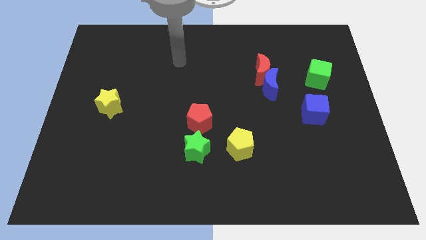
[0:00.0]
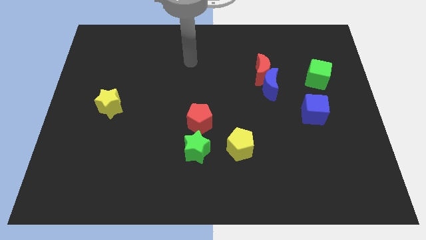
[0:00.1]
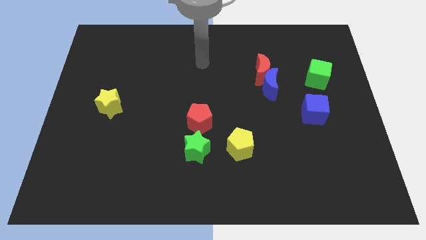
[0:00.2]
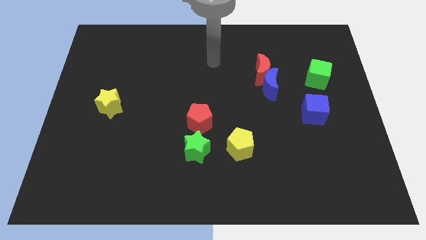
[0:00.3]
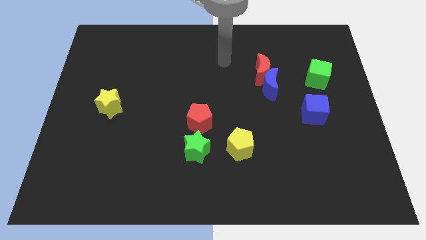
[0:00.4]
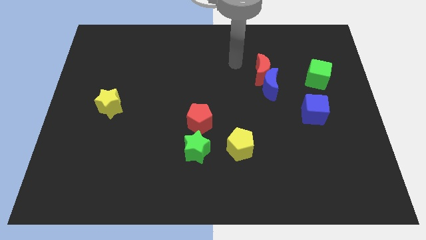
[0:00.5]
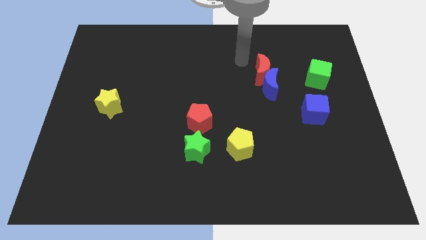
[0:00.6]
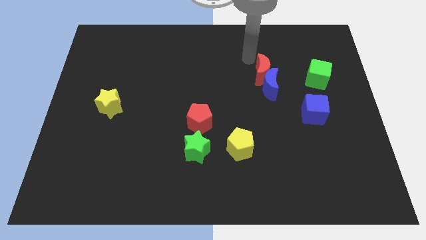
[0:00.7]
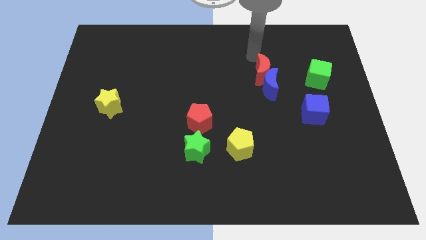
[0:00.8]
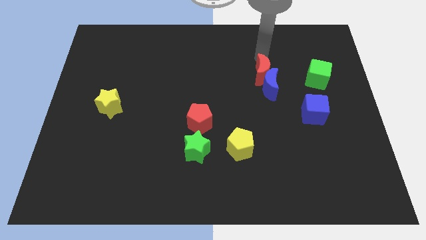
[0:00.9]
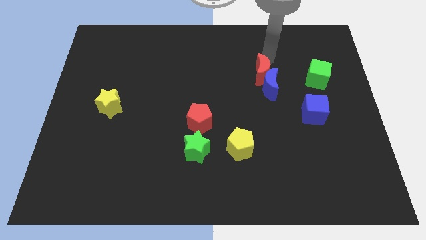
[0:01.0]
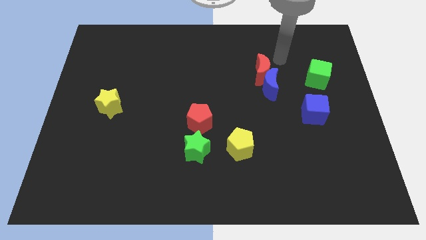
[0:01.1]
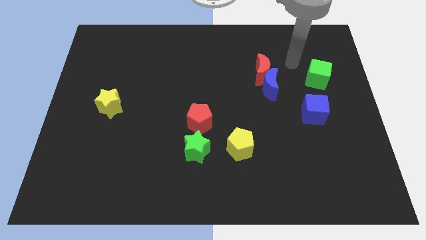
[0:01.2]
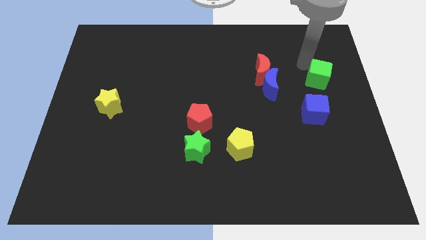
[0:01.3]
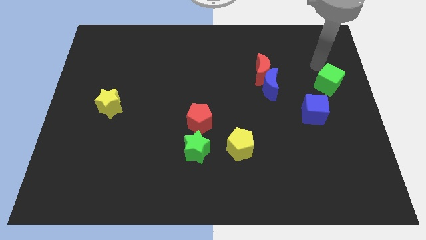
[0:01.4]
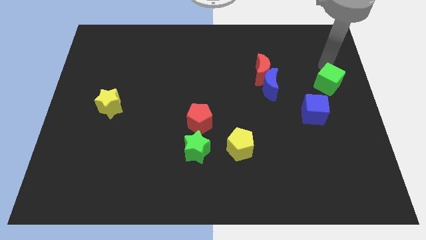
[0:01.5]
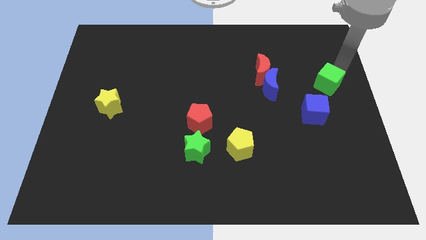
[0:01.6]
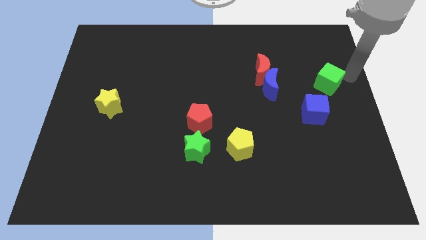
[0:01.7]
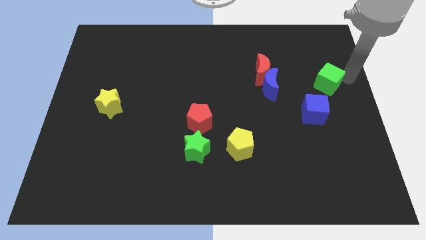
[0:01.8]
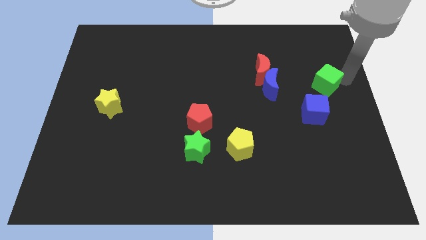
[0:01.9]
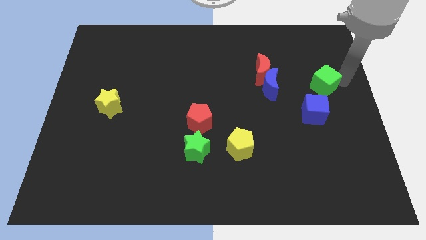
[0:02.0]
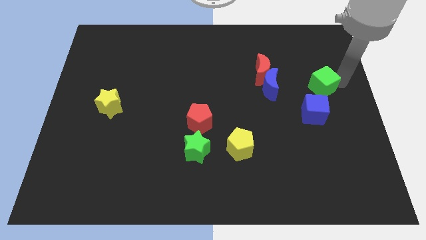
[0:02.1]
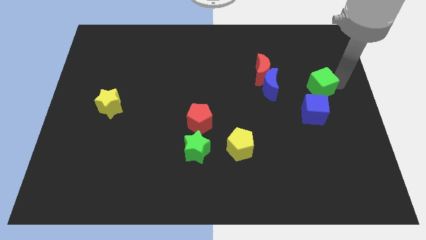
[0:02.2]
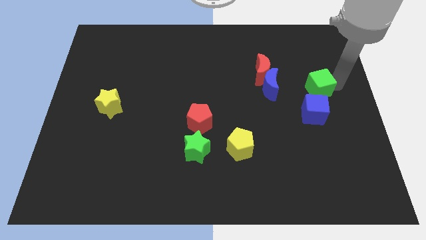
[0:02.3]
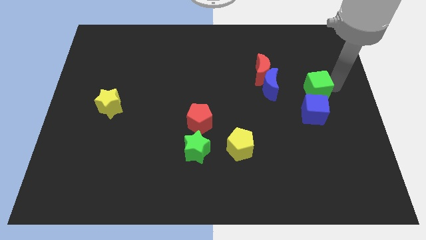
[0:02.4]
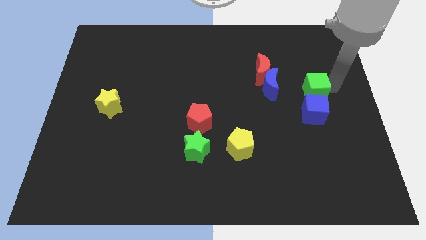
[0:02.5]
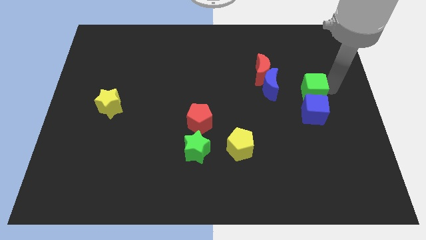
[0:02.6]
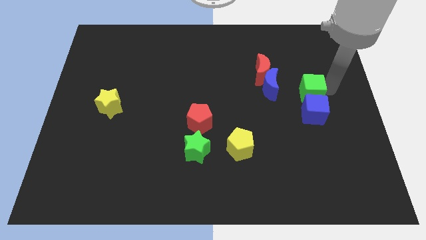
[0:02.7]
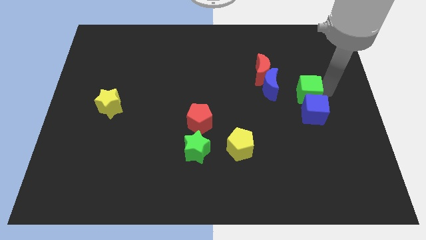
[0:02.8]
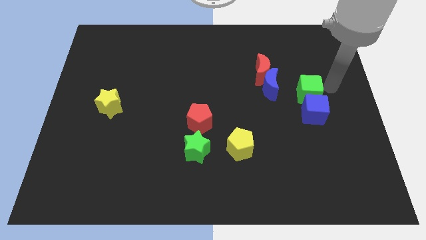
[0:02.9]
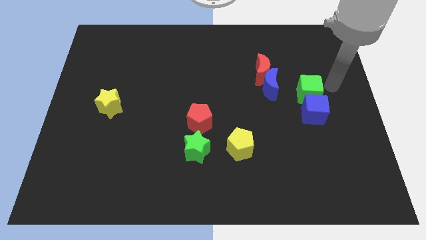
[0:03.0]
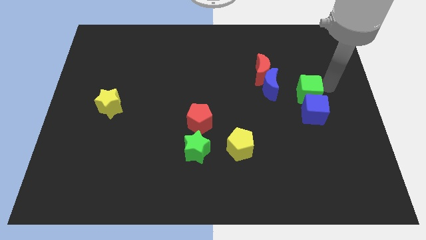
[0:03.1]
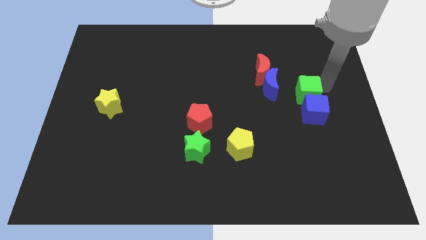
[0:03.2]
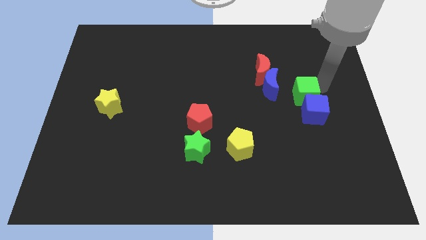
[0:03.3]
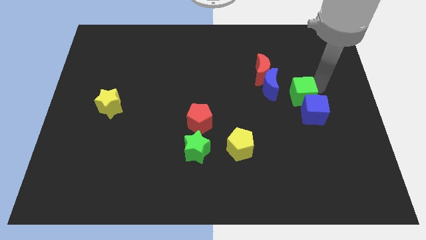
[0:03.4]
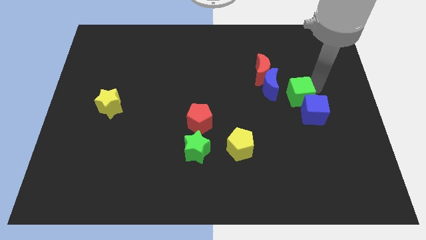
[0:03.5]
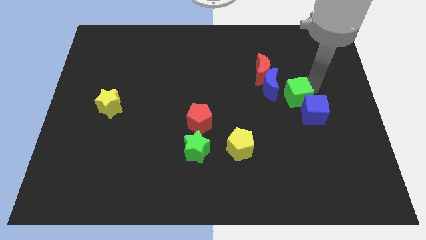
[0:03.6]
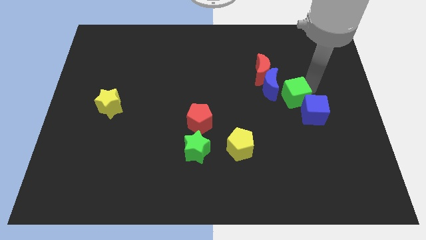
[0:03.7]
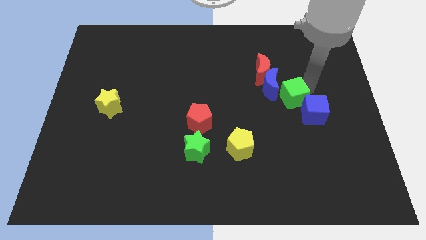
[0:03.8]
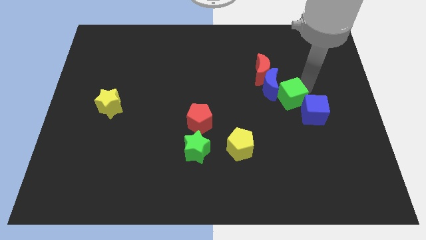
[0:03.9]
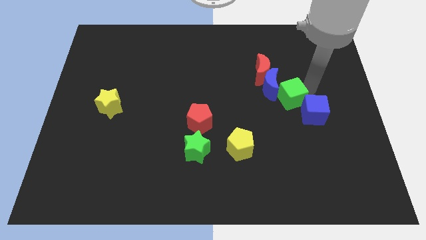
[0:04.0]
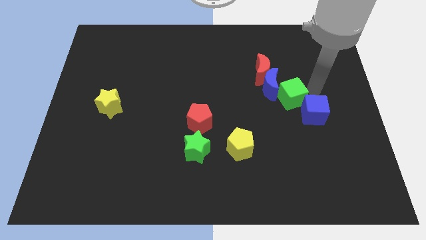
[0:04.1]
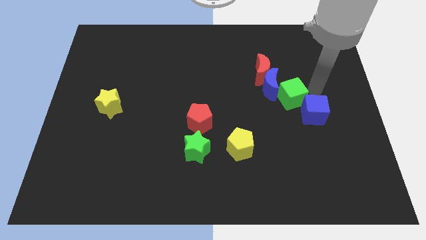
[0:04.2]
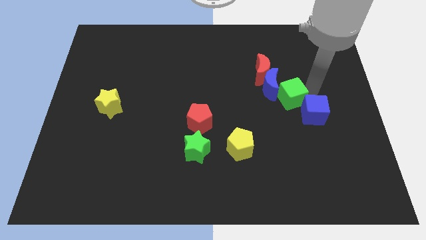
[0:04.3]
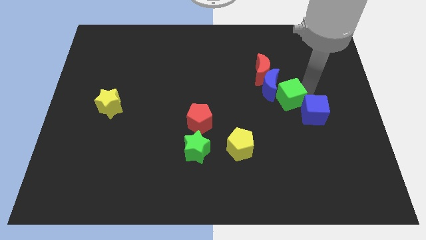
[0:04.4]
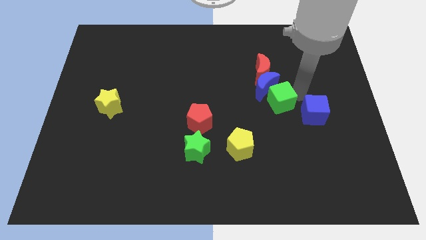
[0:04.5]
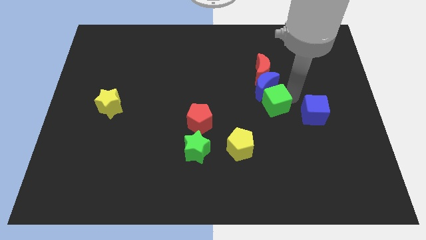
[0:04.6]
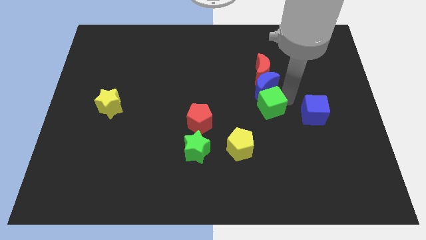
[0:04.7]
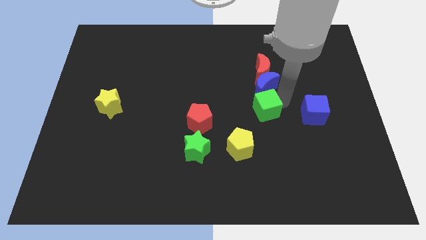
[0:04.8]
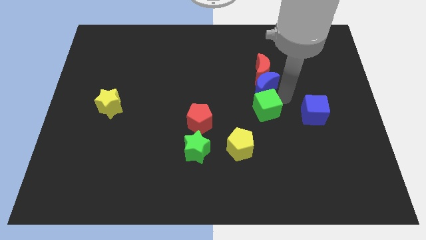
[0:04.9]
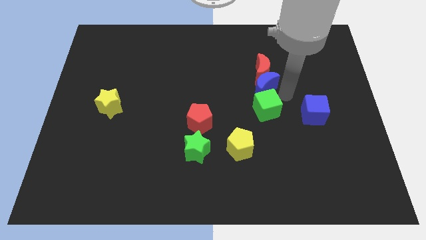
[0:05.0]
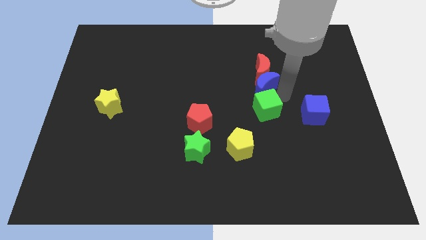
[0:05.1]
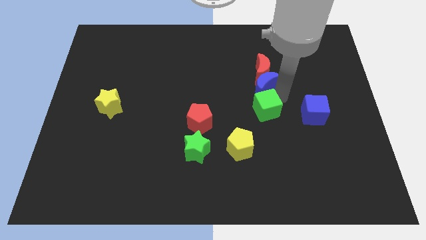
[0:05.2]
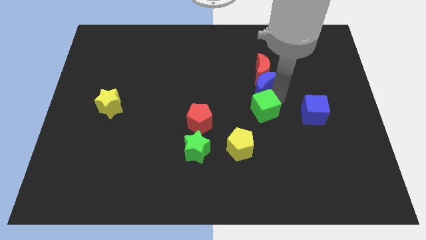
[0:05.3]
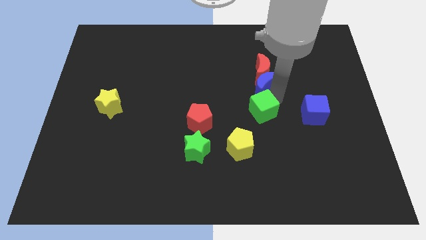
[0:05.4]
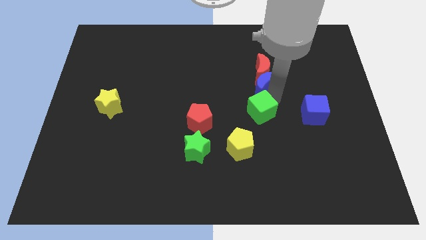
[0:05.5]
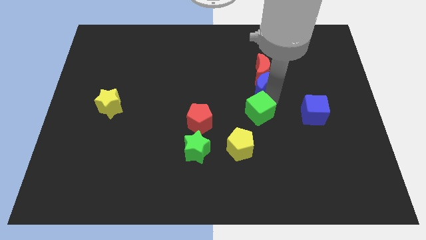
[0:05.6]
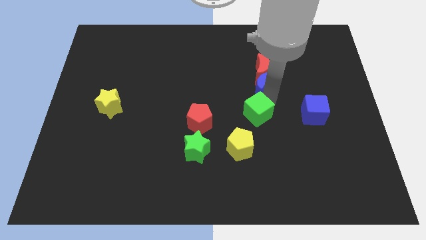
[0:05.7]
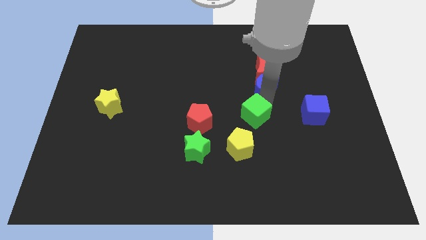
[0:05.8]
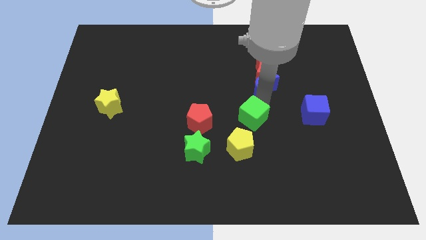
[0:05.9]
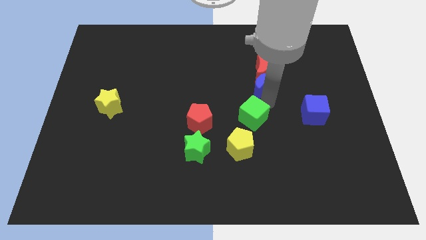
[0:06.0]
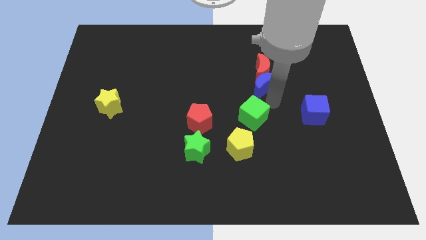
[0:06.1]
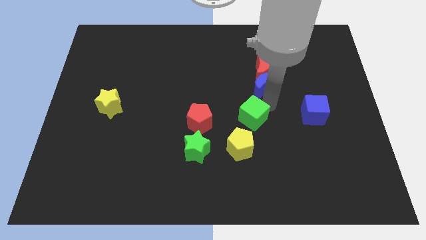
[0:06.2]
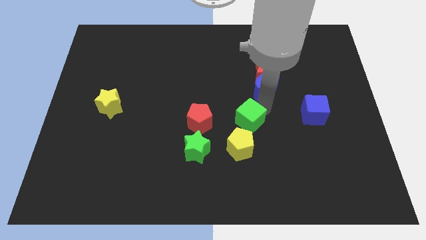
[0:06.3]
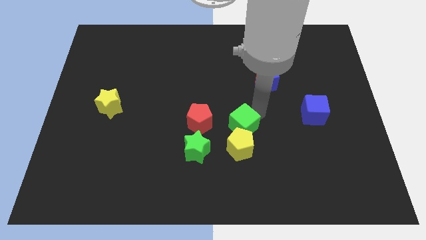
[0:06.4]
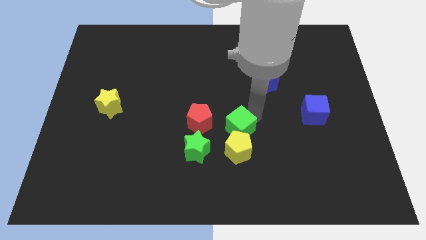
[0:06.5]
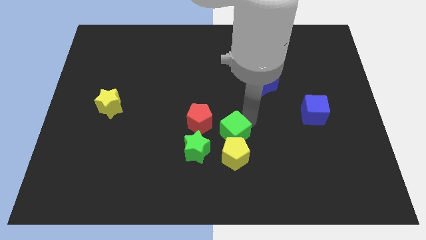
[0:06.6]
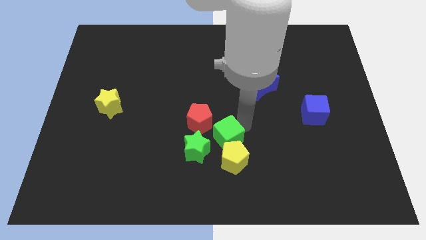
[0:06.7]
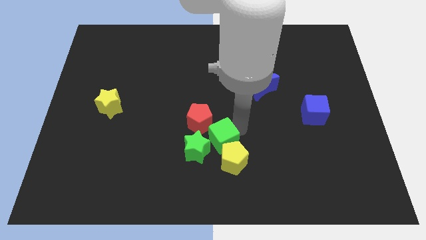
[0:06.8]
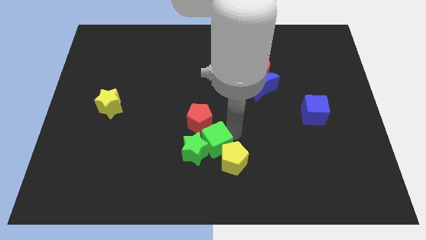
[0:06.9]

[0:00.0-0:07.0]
push the green cube close to the green star
